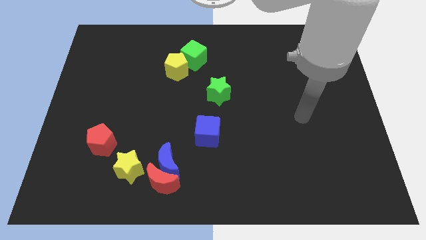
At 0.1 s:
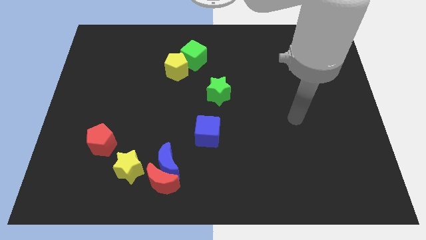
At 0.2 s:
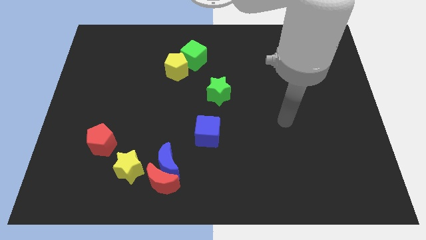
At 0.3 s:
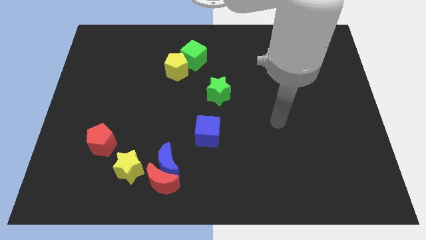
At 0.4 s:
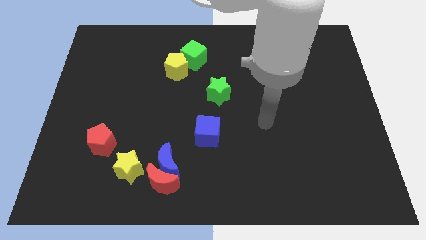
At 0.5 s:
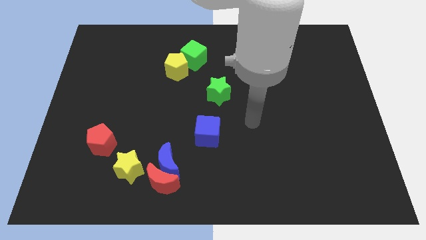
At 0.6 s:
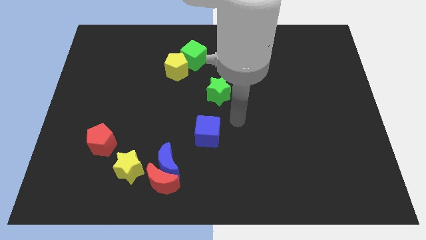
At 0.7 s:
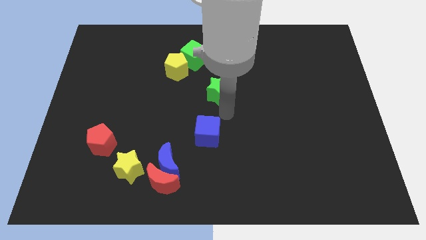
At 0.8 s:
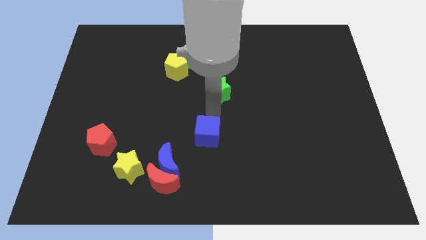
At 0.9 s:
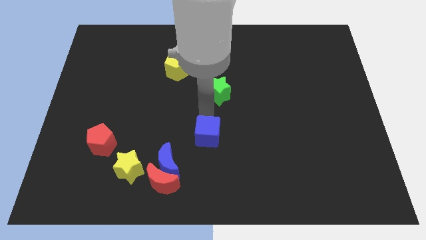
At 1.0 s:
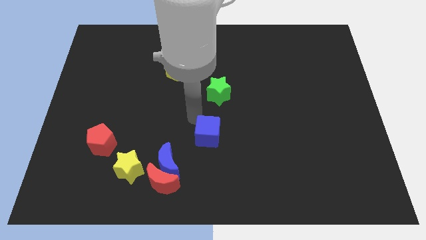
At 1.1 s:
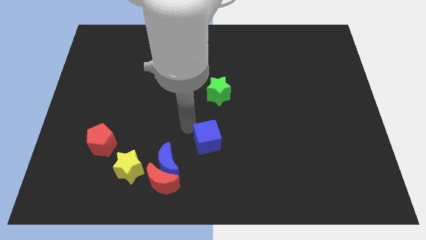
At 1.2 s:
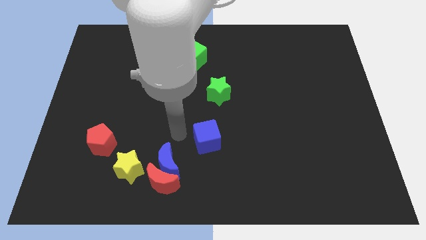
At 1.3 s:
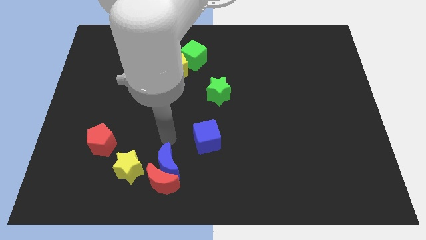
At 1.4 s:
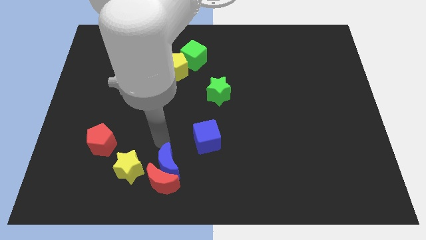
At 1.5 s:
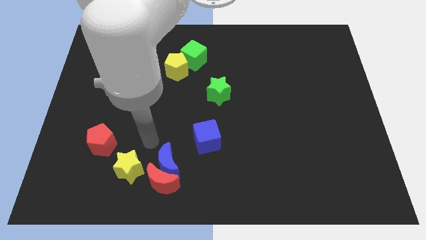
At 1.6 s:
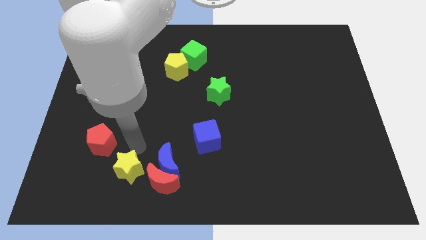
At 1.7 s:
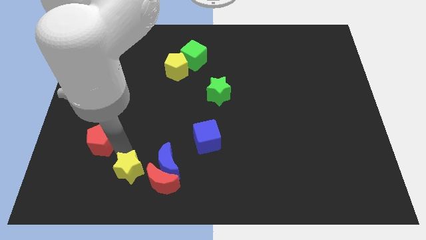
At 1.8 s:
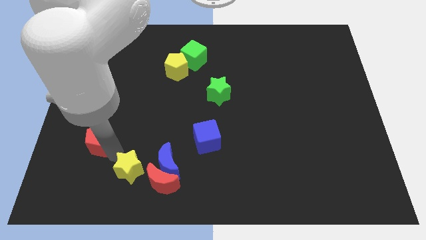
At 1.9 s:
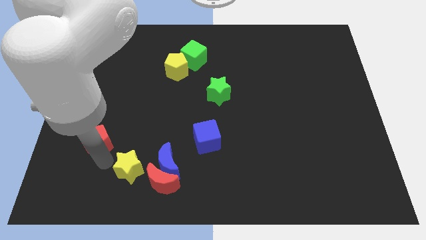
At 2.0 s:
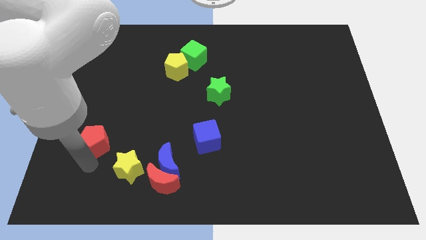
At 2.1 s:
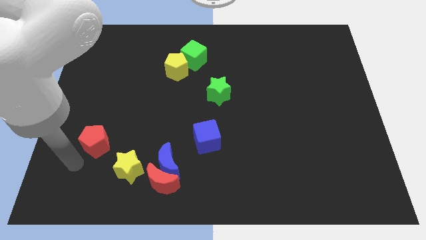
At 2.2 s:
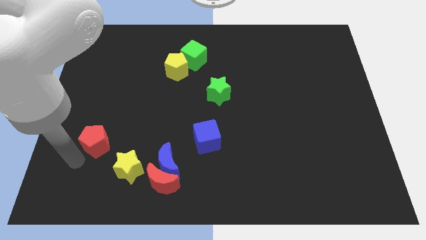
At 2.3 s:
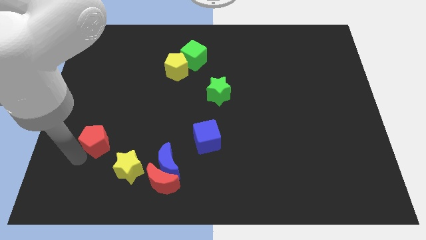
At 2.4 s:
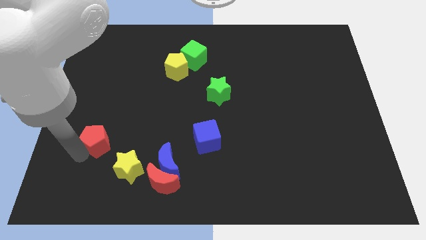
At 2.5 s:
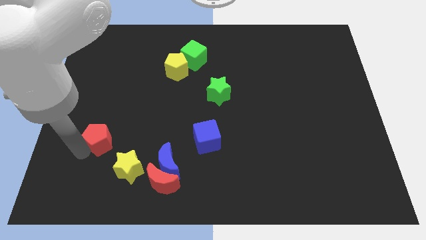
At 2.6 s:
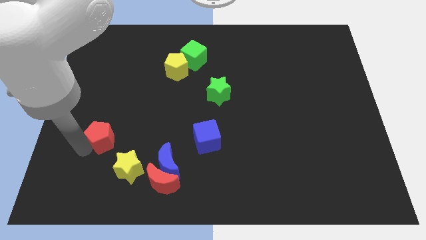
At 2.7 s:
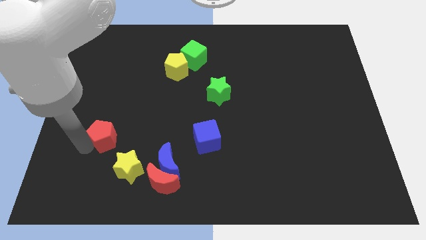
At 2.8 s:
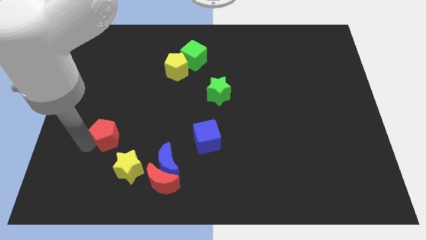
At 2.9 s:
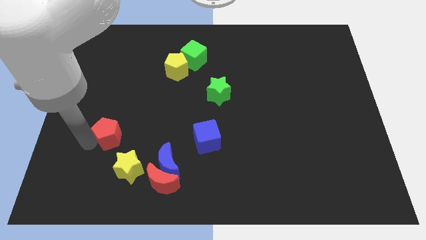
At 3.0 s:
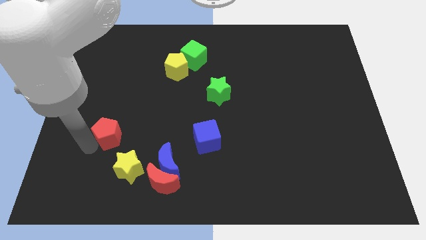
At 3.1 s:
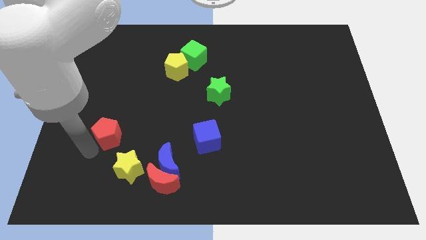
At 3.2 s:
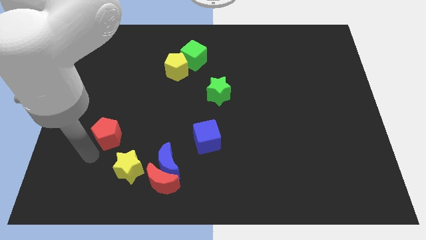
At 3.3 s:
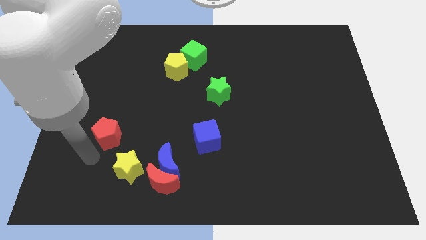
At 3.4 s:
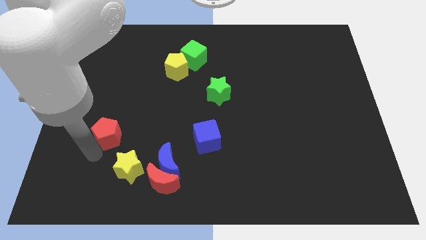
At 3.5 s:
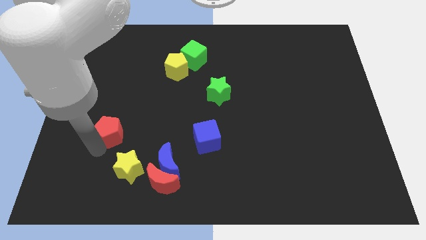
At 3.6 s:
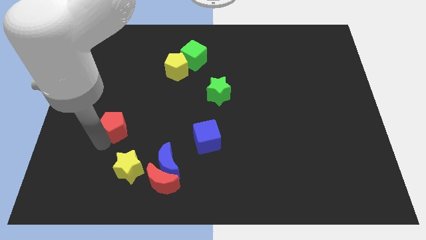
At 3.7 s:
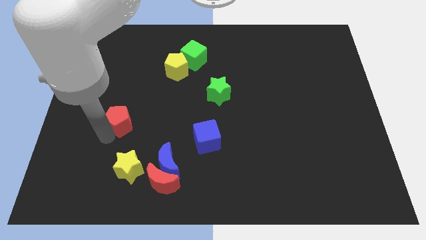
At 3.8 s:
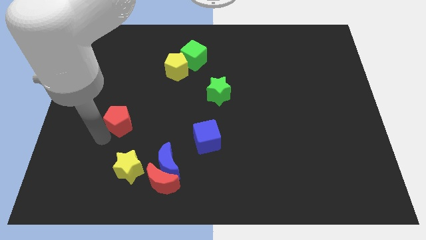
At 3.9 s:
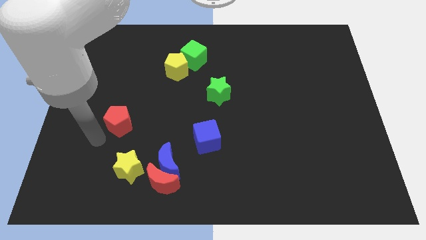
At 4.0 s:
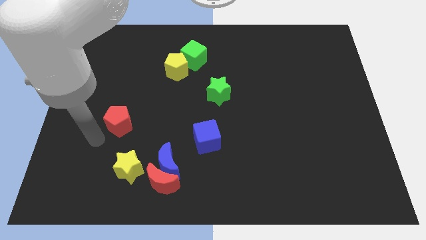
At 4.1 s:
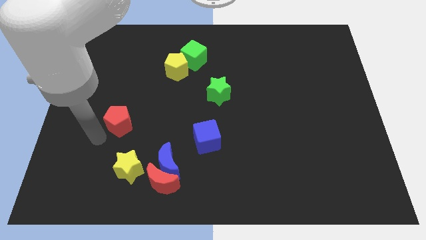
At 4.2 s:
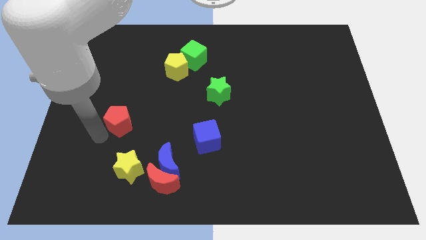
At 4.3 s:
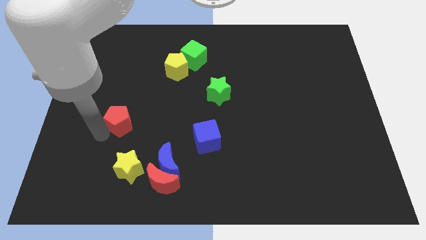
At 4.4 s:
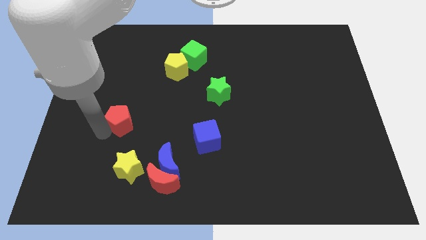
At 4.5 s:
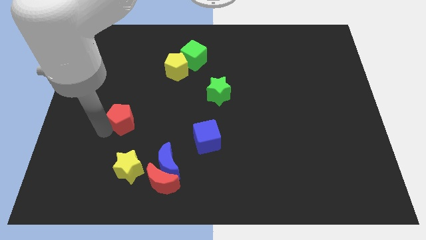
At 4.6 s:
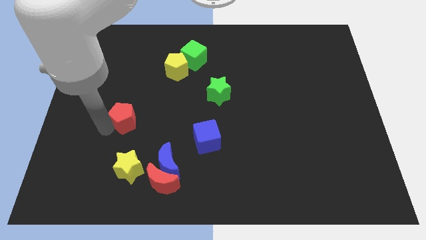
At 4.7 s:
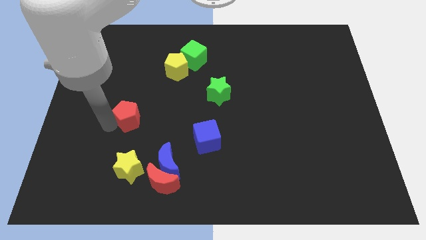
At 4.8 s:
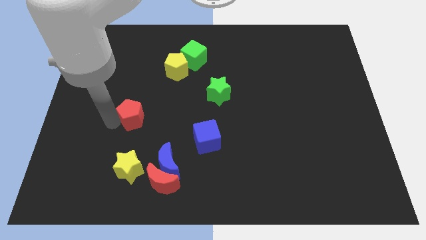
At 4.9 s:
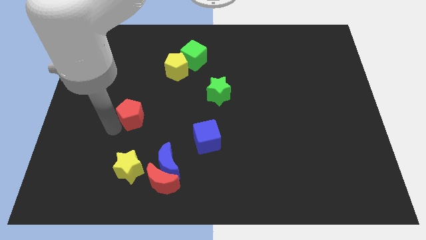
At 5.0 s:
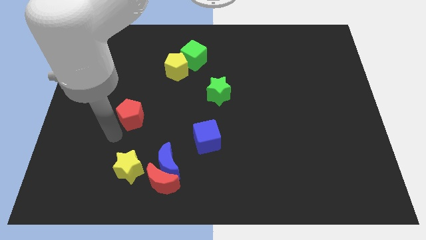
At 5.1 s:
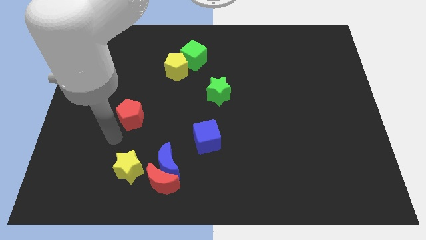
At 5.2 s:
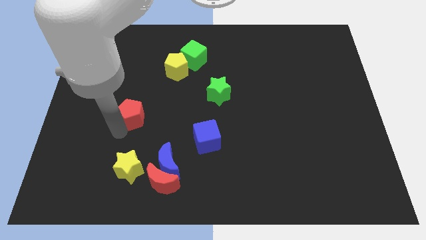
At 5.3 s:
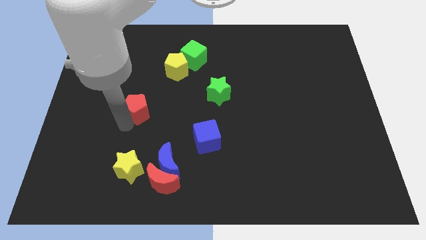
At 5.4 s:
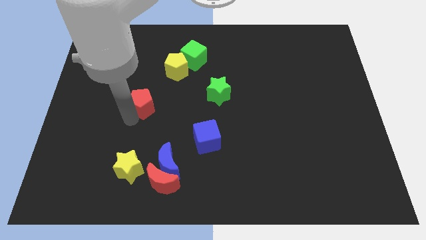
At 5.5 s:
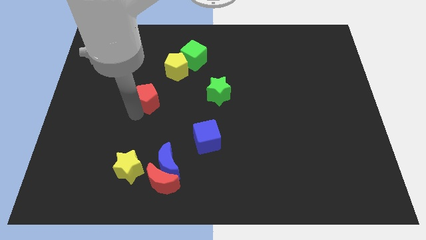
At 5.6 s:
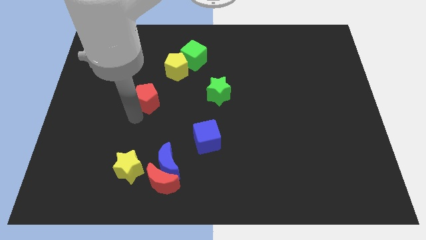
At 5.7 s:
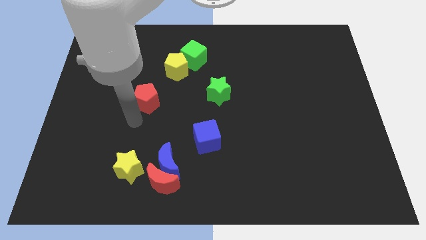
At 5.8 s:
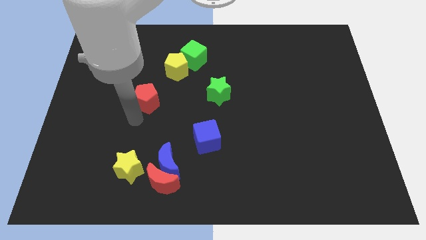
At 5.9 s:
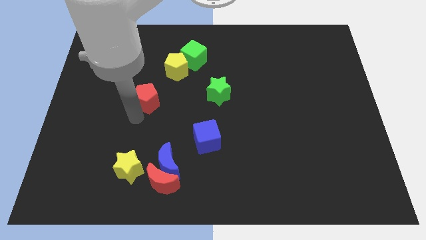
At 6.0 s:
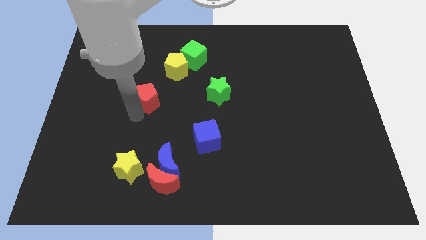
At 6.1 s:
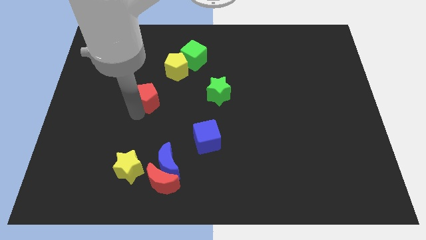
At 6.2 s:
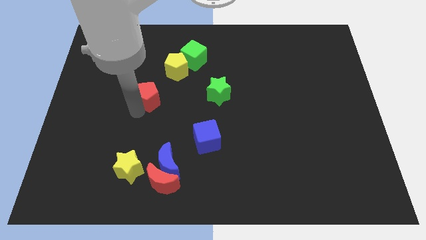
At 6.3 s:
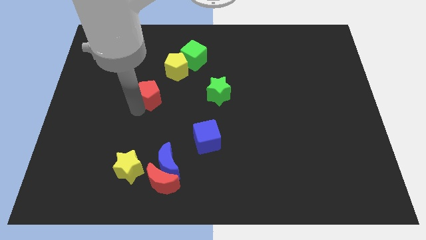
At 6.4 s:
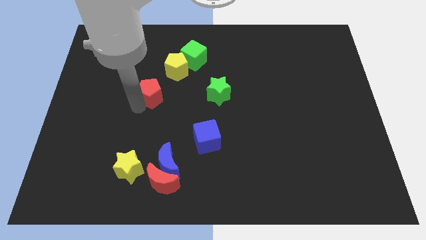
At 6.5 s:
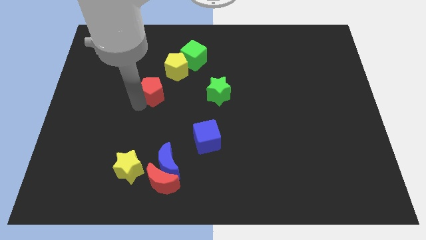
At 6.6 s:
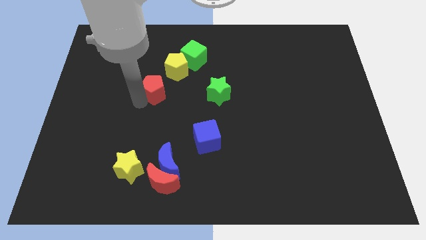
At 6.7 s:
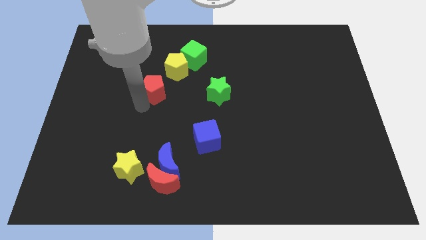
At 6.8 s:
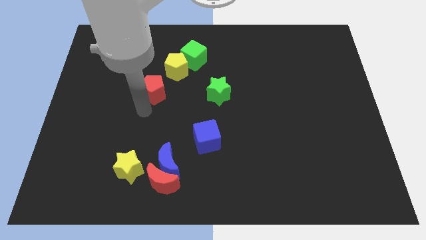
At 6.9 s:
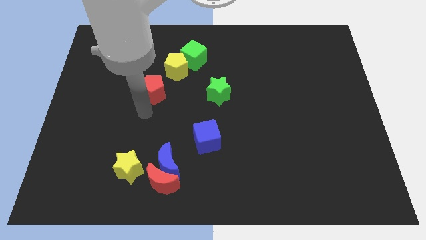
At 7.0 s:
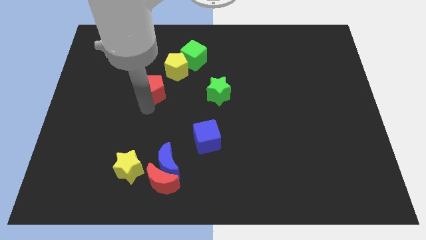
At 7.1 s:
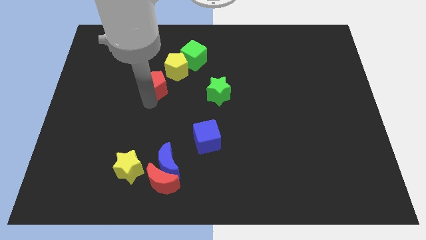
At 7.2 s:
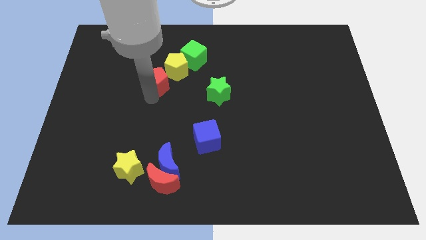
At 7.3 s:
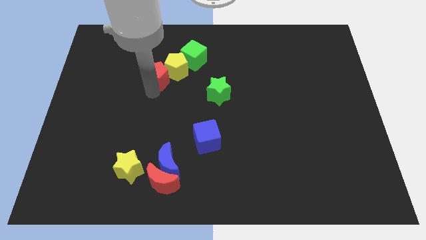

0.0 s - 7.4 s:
move the red pentagon towards the yellow pentagon
